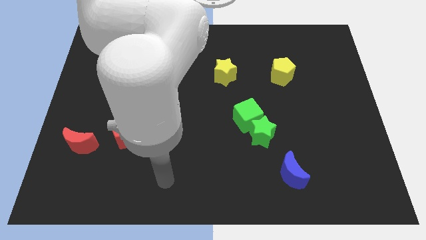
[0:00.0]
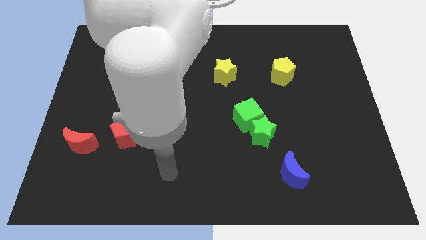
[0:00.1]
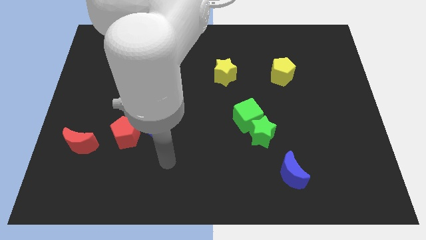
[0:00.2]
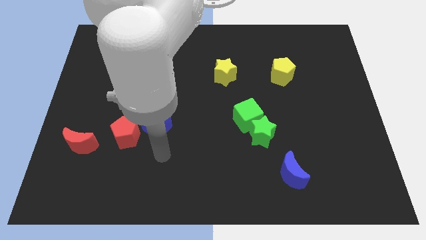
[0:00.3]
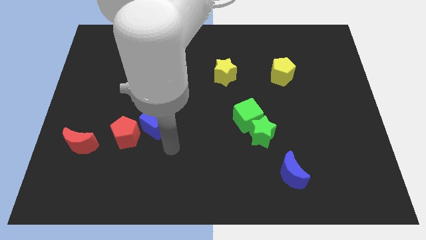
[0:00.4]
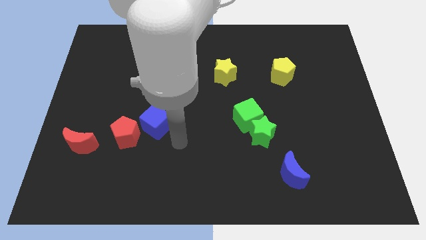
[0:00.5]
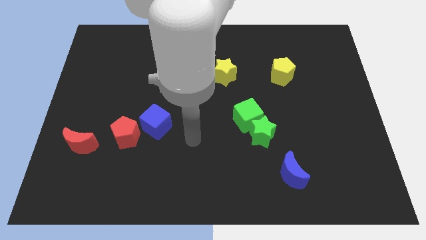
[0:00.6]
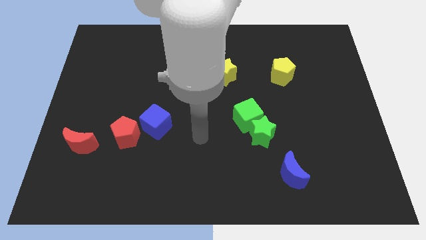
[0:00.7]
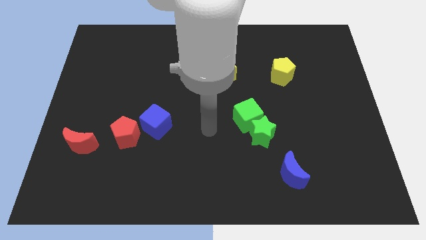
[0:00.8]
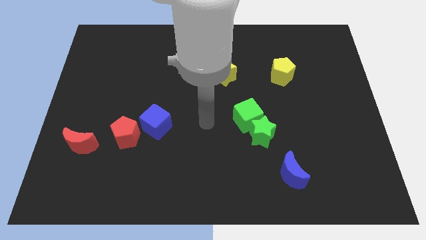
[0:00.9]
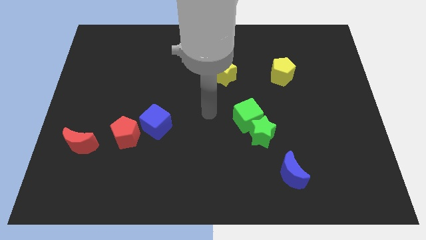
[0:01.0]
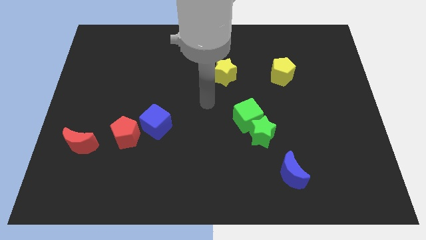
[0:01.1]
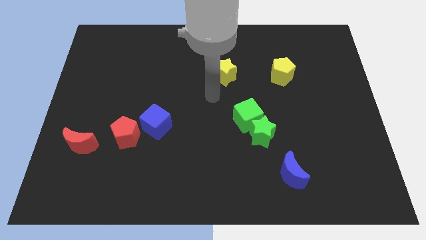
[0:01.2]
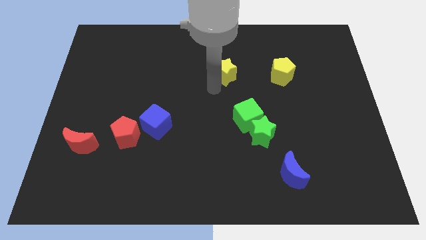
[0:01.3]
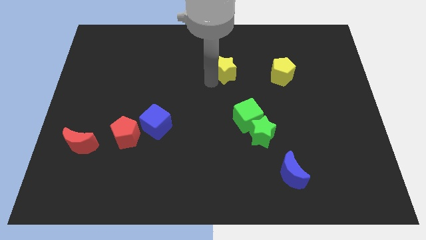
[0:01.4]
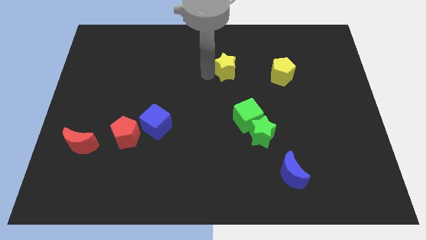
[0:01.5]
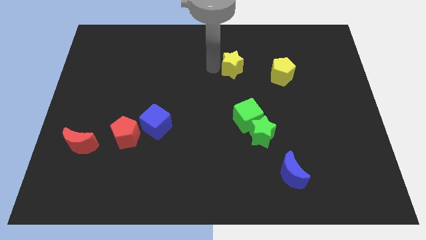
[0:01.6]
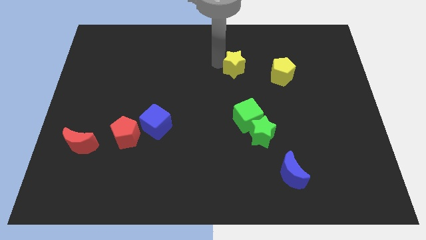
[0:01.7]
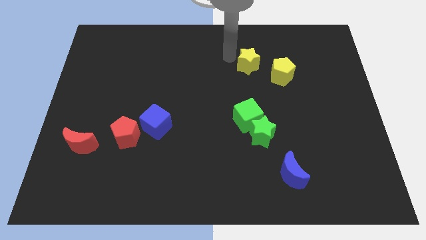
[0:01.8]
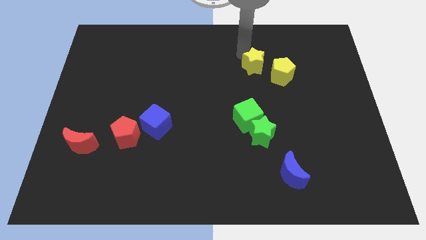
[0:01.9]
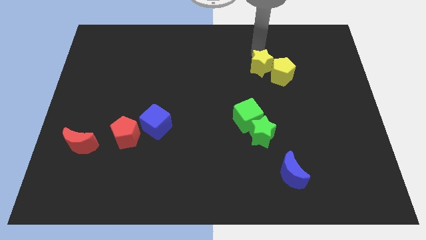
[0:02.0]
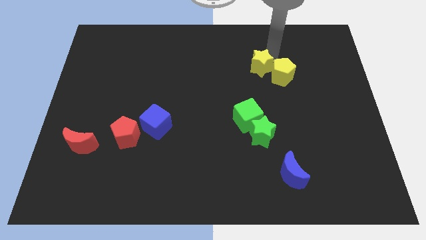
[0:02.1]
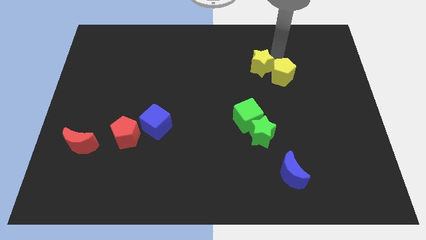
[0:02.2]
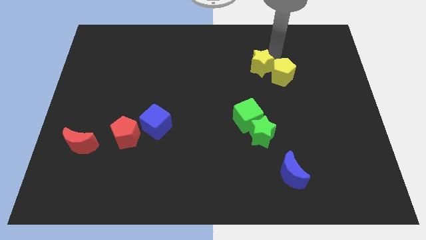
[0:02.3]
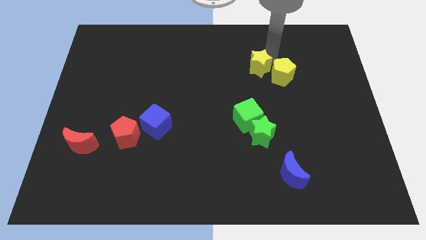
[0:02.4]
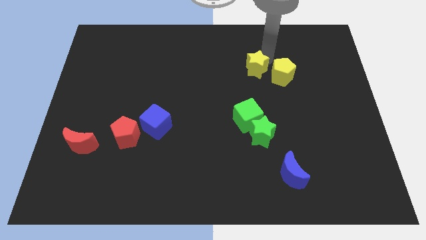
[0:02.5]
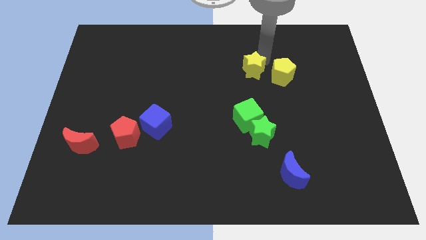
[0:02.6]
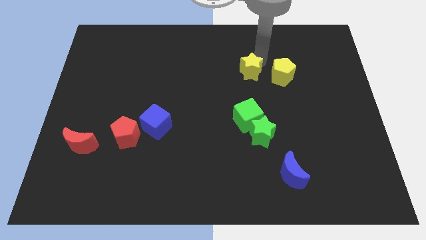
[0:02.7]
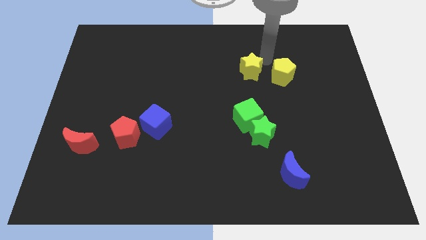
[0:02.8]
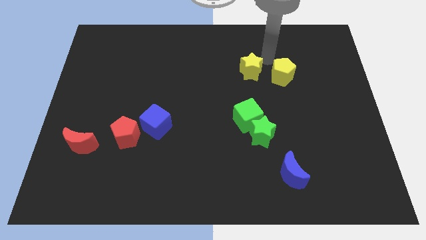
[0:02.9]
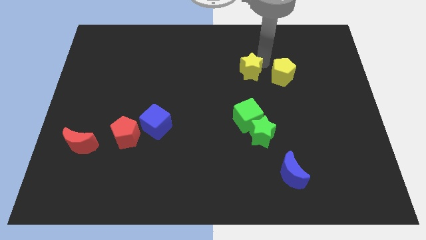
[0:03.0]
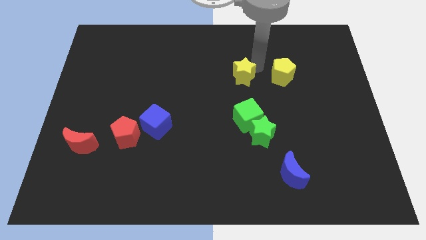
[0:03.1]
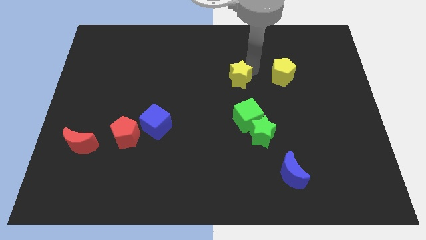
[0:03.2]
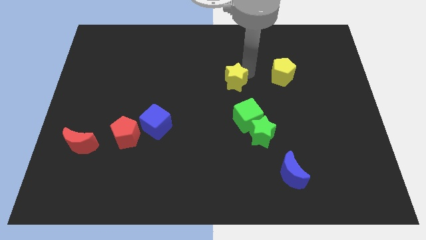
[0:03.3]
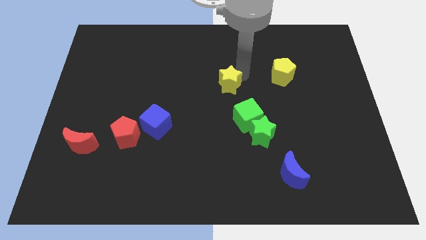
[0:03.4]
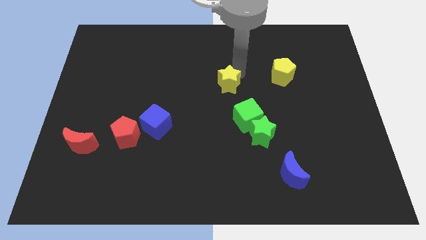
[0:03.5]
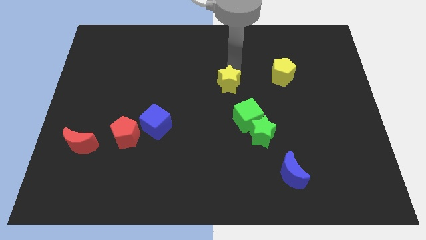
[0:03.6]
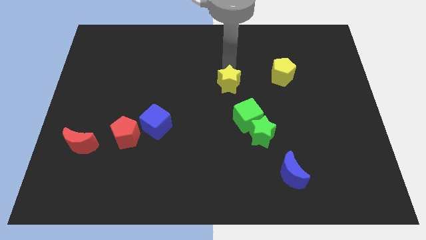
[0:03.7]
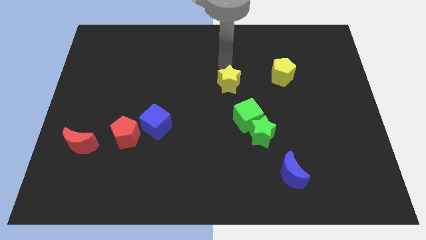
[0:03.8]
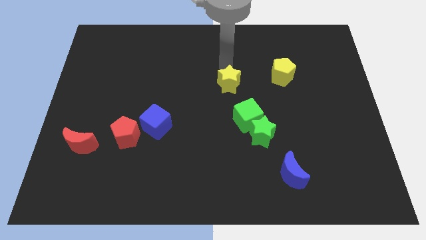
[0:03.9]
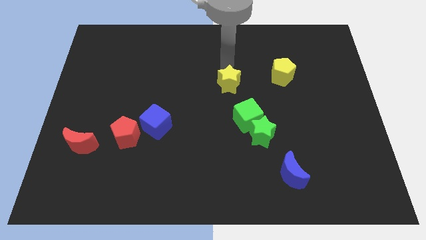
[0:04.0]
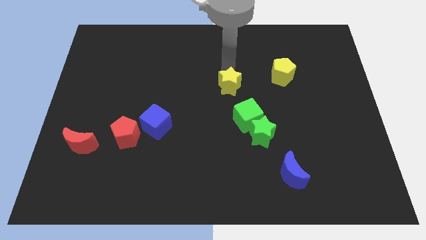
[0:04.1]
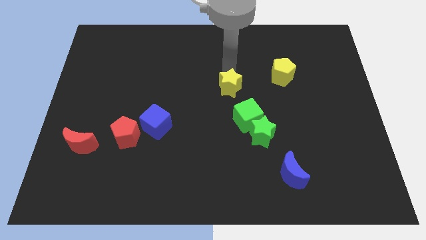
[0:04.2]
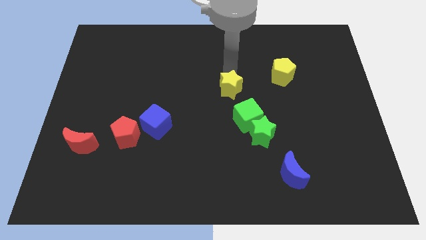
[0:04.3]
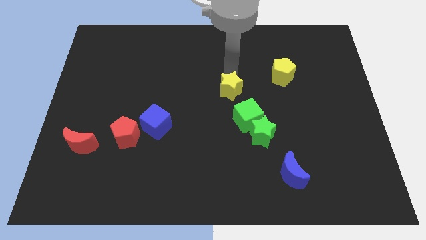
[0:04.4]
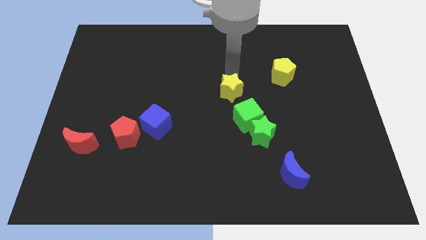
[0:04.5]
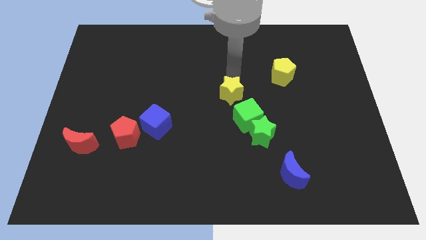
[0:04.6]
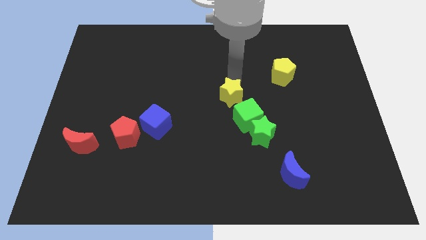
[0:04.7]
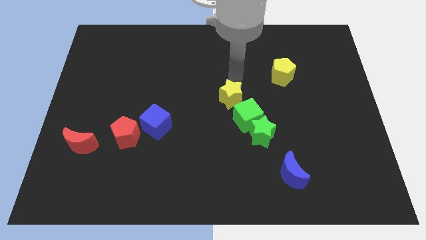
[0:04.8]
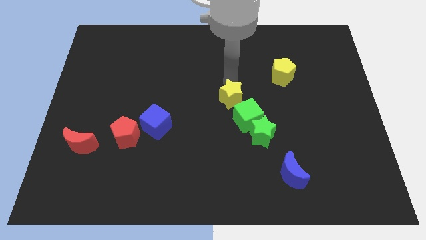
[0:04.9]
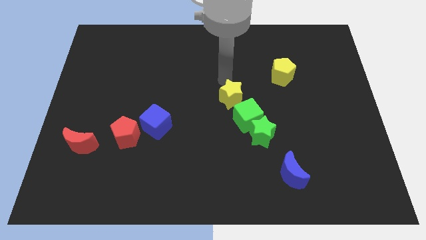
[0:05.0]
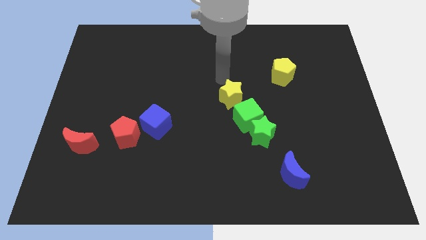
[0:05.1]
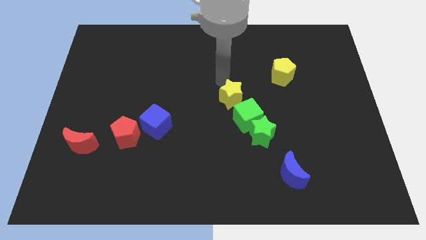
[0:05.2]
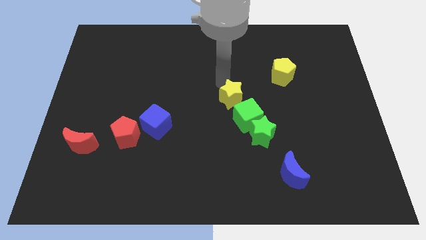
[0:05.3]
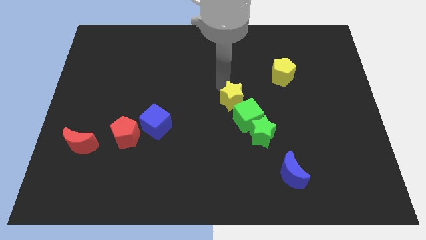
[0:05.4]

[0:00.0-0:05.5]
push the yellow star to the top left side of the green star

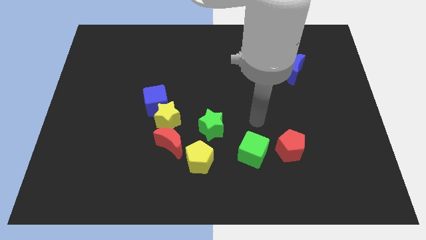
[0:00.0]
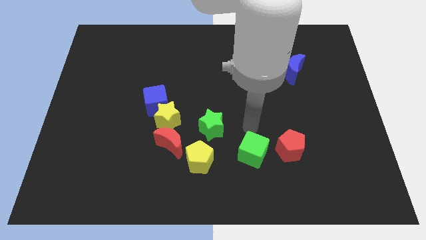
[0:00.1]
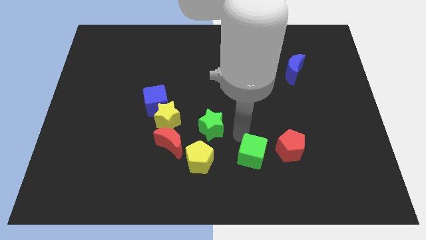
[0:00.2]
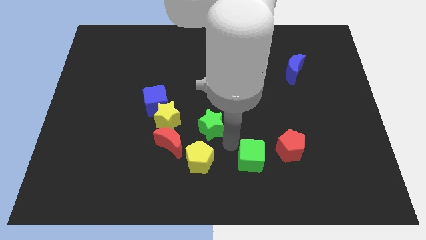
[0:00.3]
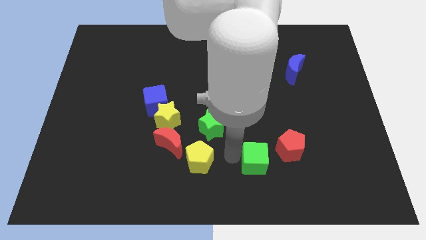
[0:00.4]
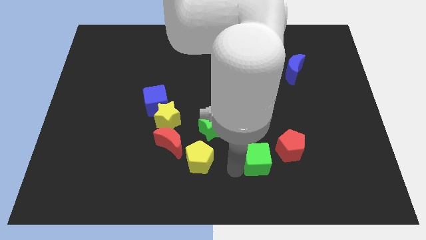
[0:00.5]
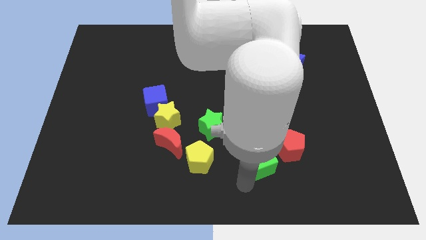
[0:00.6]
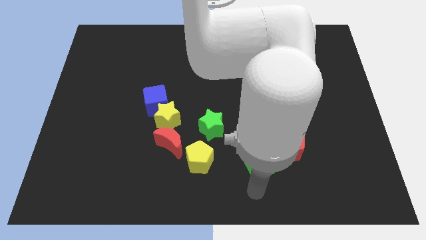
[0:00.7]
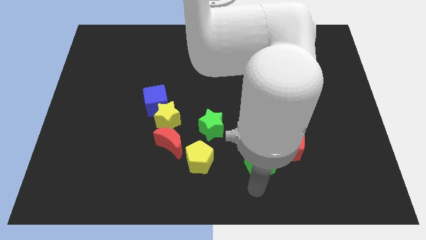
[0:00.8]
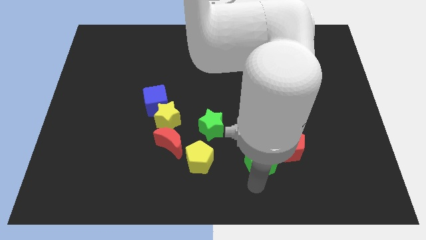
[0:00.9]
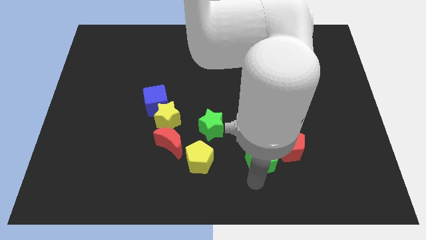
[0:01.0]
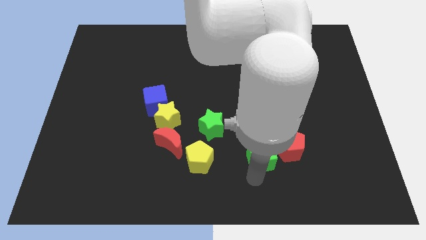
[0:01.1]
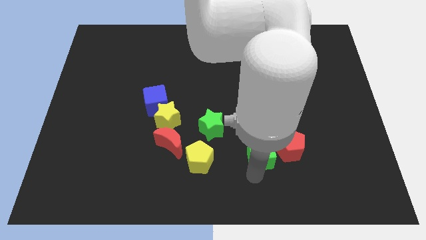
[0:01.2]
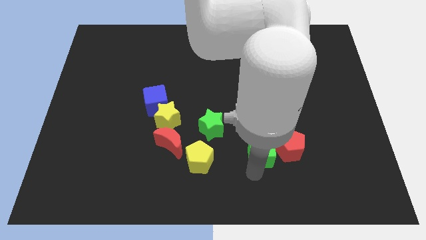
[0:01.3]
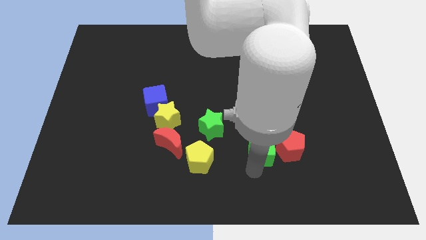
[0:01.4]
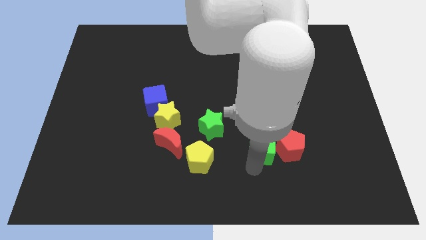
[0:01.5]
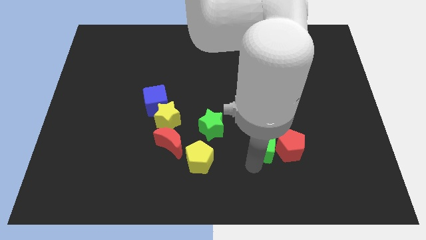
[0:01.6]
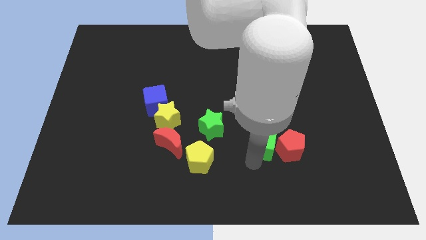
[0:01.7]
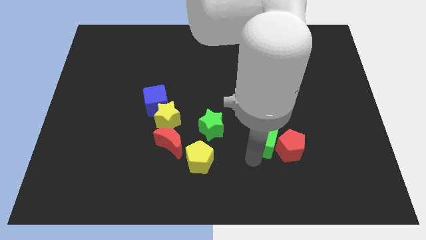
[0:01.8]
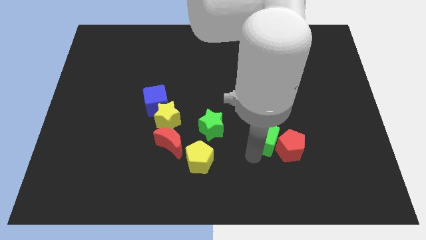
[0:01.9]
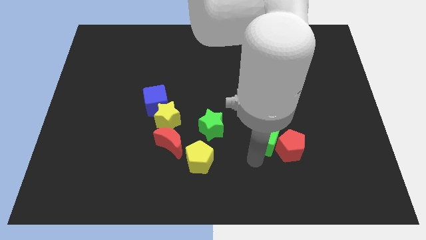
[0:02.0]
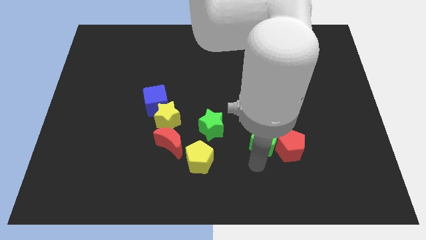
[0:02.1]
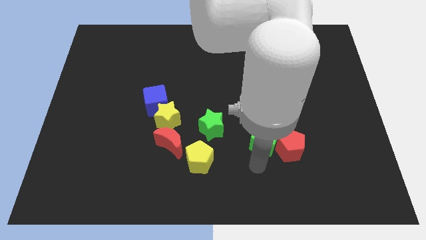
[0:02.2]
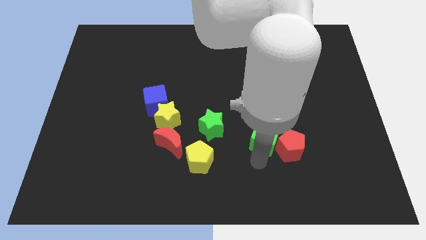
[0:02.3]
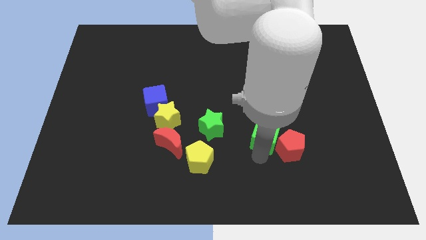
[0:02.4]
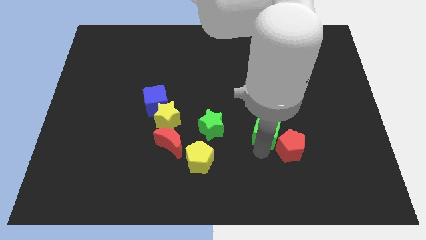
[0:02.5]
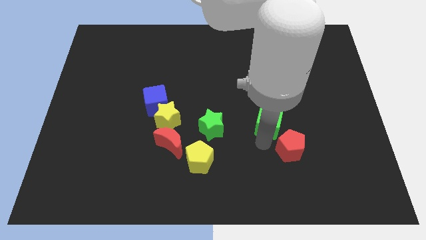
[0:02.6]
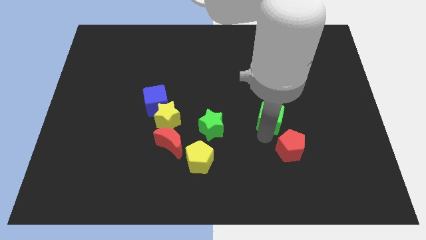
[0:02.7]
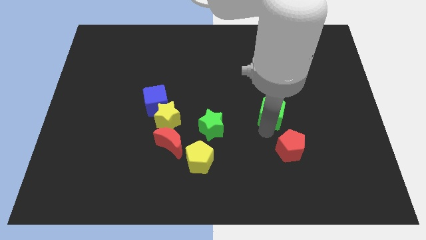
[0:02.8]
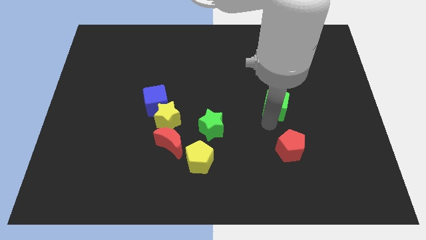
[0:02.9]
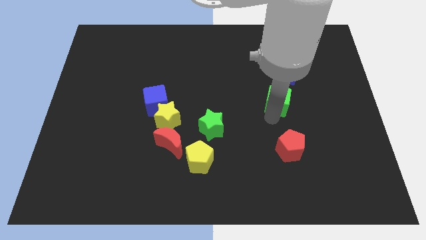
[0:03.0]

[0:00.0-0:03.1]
move the green cube to the bottom left of the blue moon
